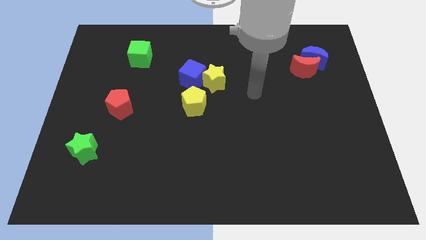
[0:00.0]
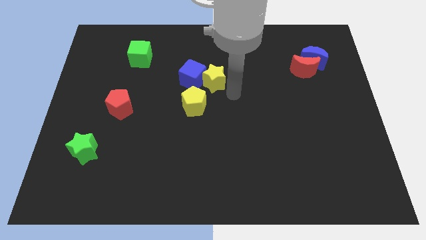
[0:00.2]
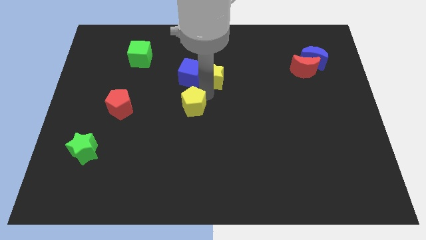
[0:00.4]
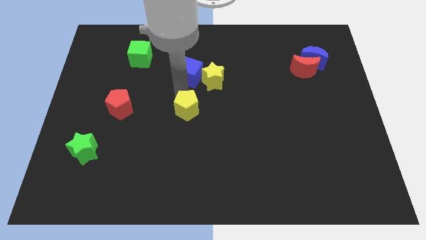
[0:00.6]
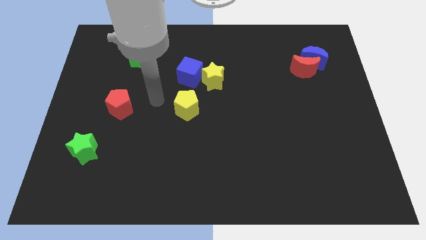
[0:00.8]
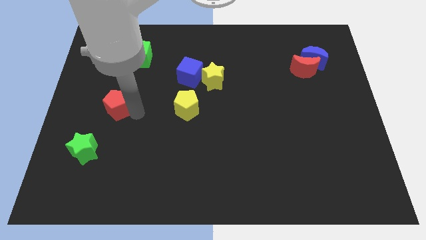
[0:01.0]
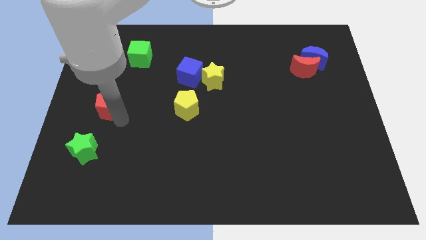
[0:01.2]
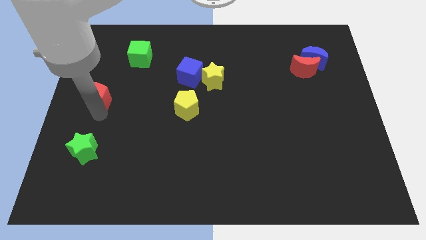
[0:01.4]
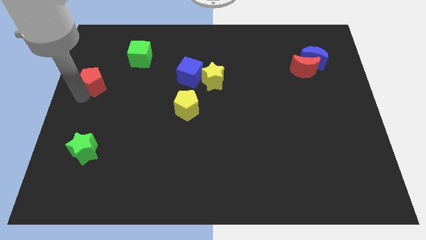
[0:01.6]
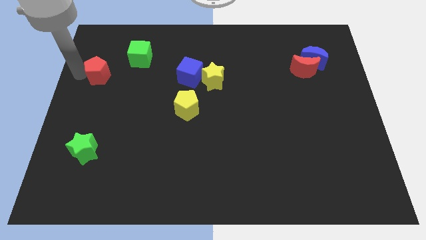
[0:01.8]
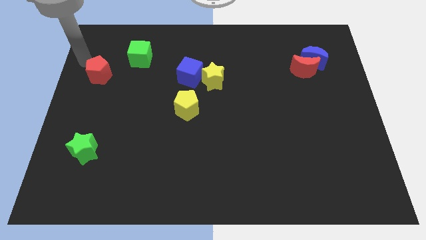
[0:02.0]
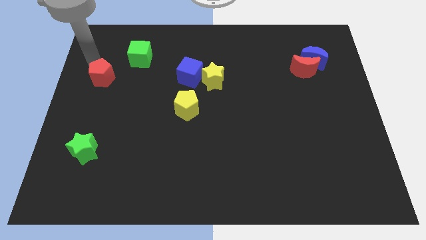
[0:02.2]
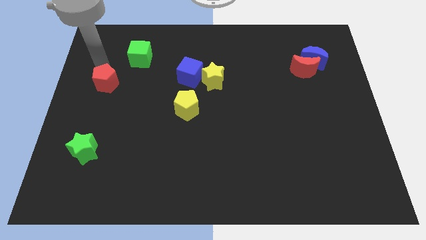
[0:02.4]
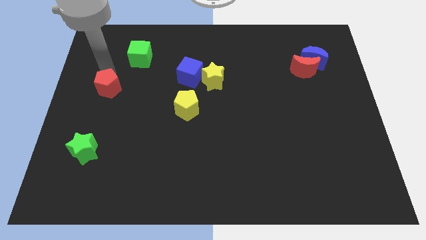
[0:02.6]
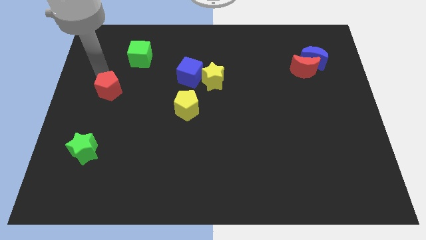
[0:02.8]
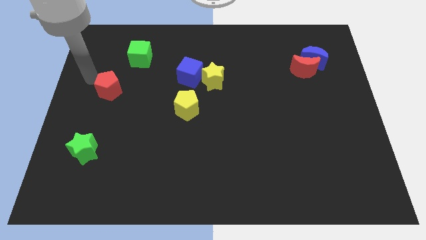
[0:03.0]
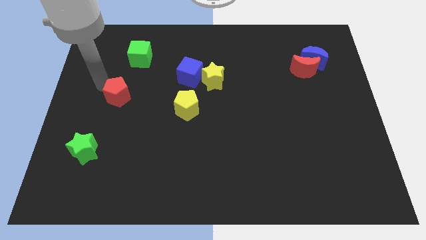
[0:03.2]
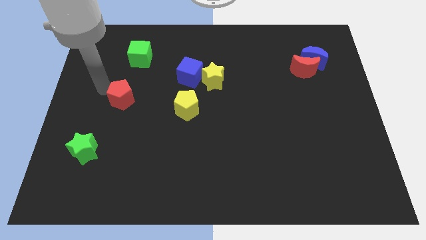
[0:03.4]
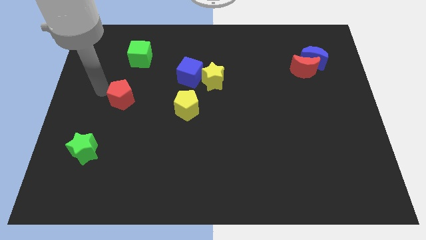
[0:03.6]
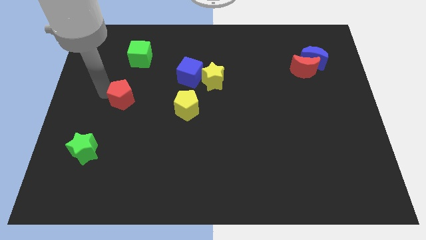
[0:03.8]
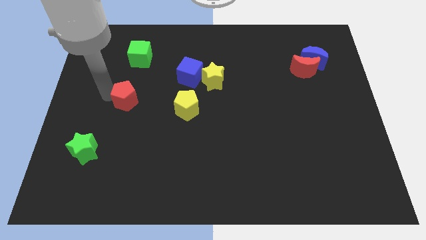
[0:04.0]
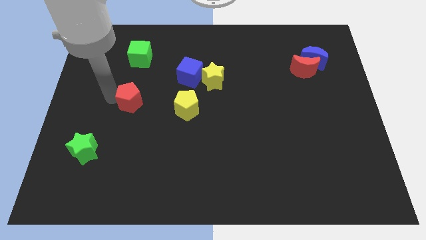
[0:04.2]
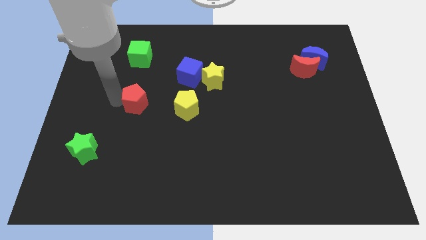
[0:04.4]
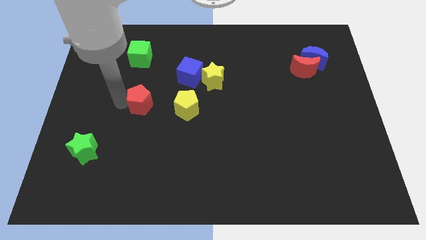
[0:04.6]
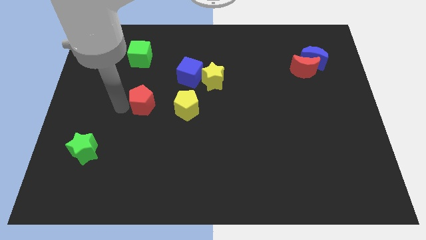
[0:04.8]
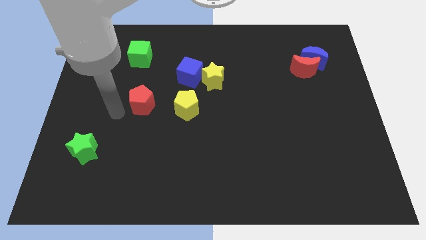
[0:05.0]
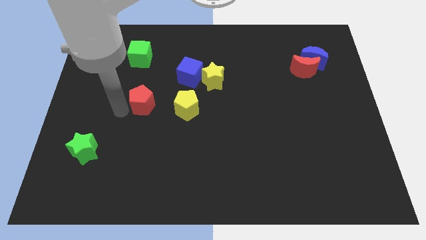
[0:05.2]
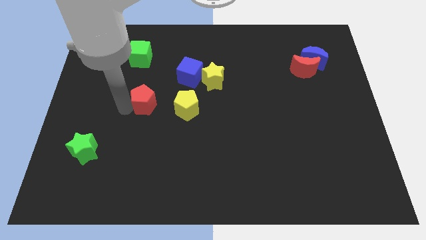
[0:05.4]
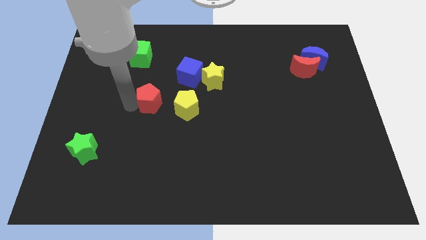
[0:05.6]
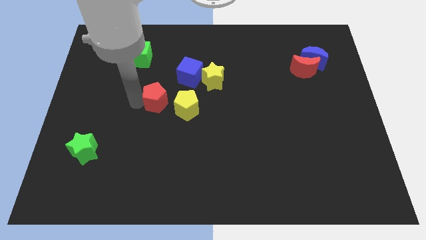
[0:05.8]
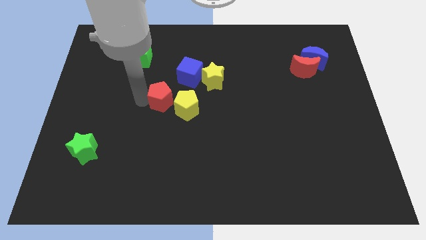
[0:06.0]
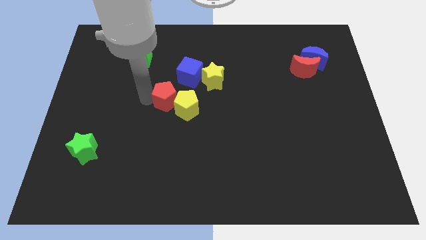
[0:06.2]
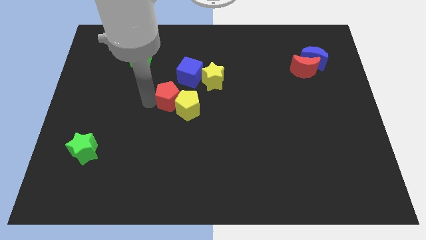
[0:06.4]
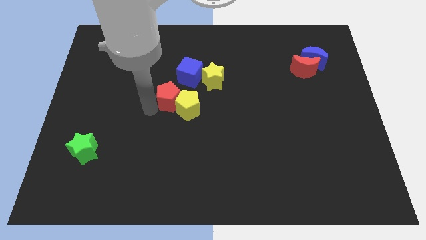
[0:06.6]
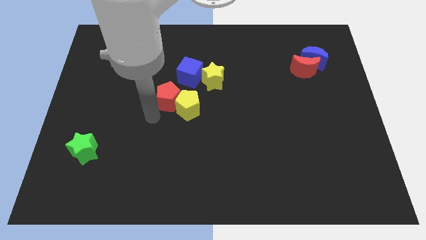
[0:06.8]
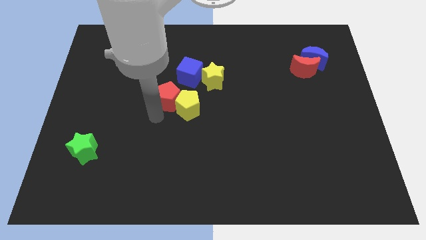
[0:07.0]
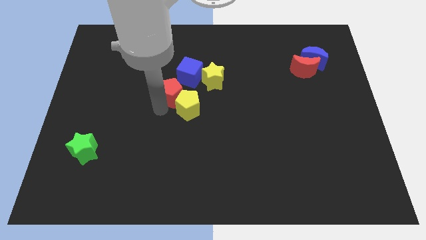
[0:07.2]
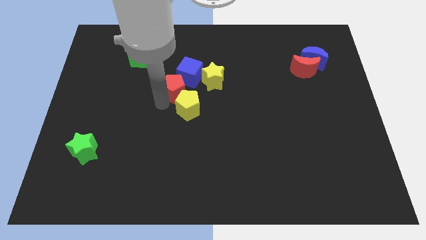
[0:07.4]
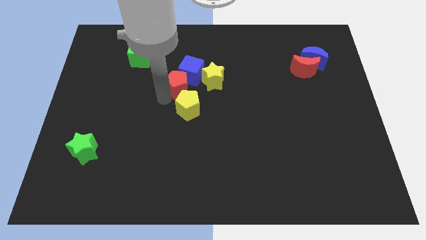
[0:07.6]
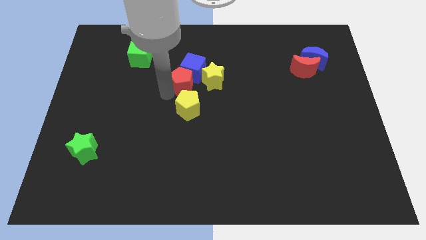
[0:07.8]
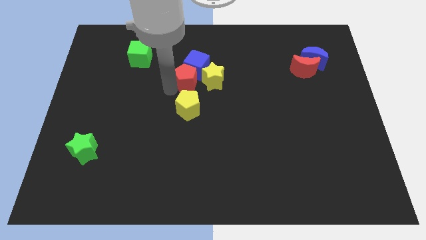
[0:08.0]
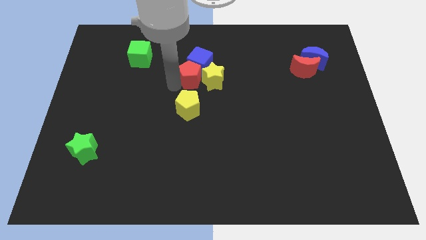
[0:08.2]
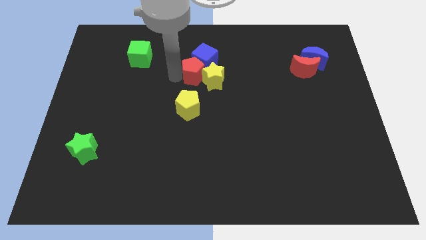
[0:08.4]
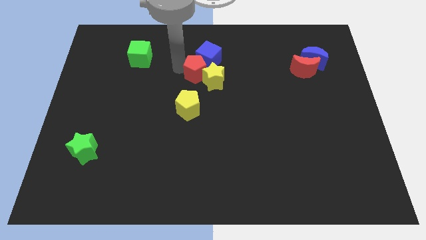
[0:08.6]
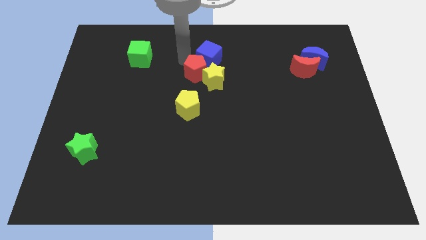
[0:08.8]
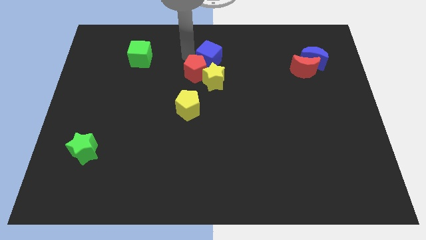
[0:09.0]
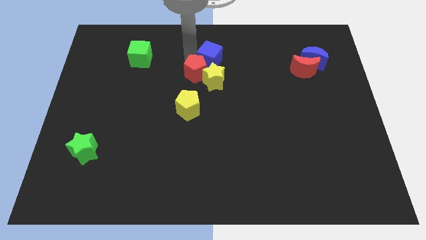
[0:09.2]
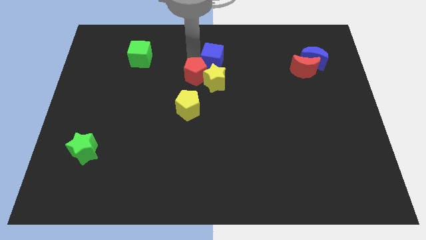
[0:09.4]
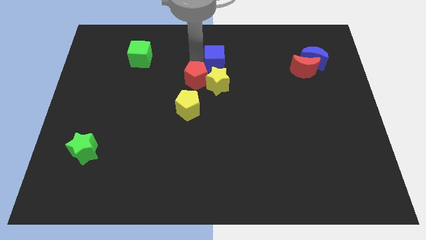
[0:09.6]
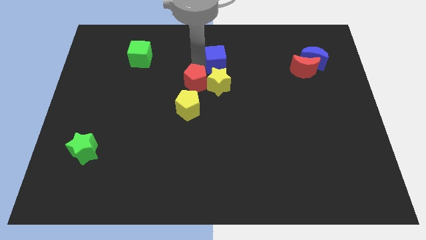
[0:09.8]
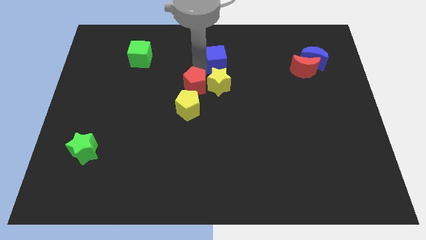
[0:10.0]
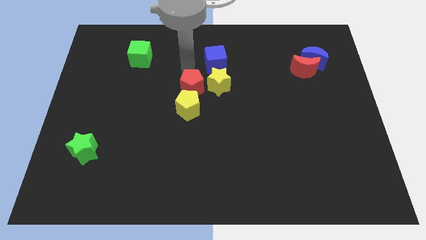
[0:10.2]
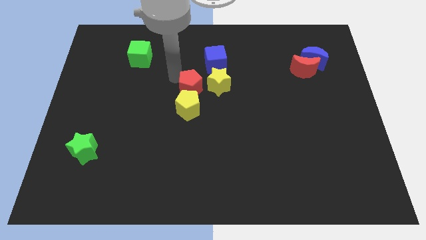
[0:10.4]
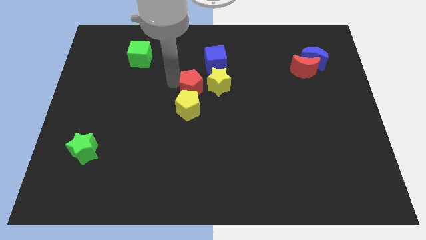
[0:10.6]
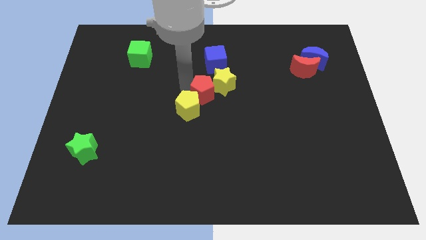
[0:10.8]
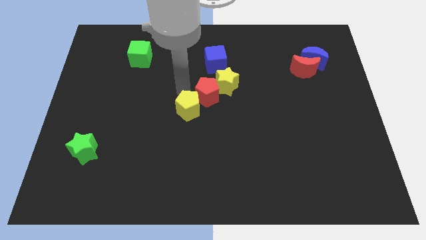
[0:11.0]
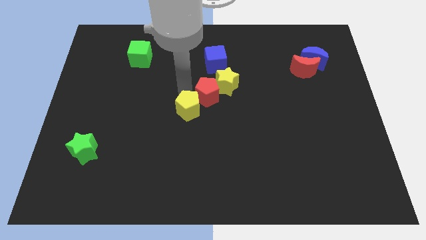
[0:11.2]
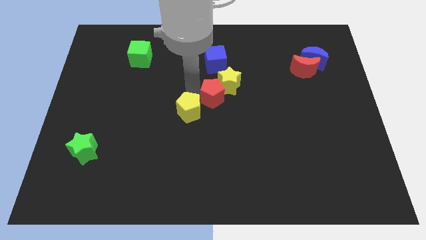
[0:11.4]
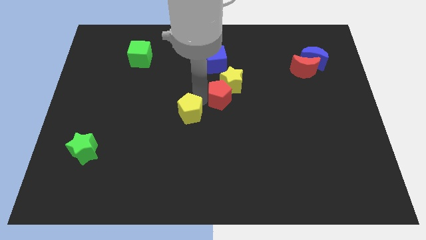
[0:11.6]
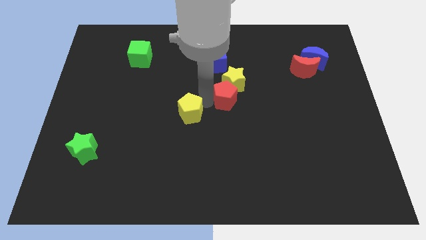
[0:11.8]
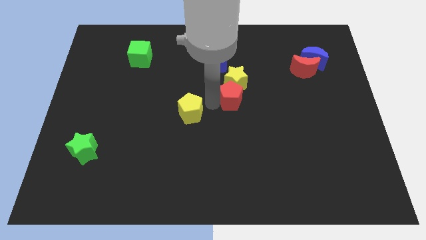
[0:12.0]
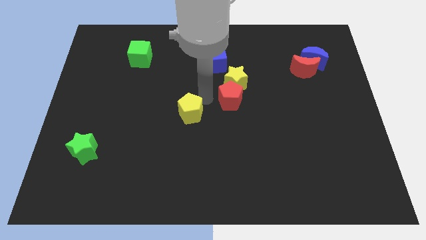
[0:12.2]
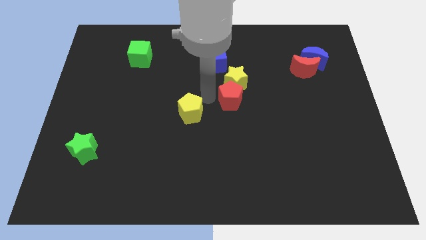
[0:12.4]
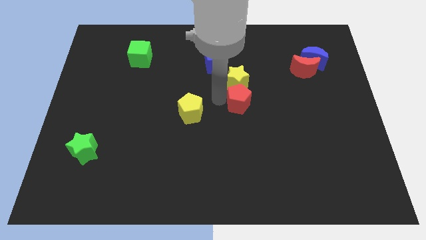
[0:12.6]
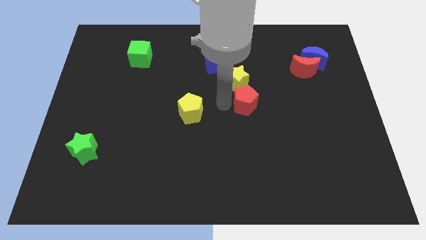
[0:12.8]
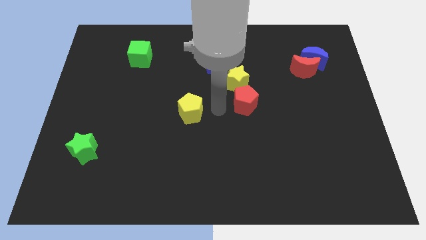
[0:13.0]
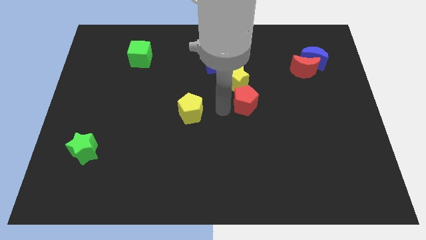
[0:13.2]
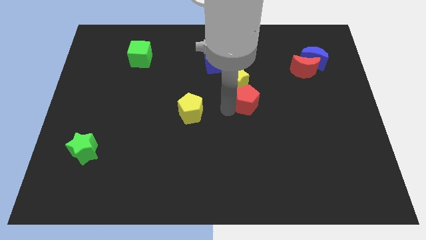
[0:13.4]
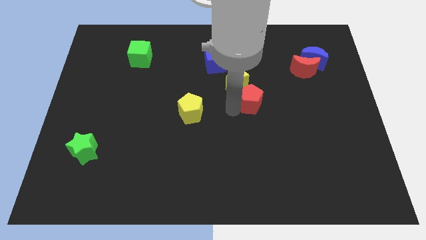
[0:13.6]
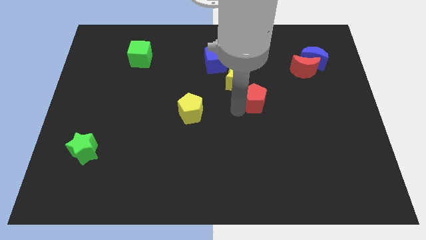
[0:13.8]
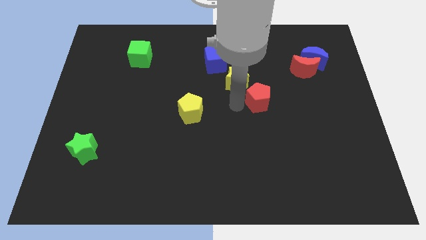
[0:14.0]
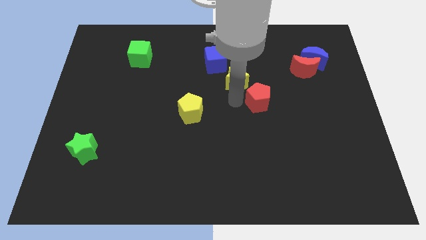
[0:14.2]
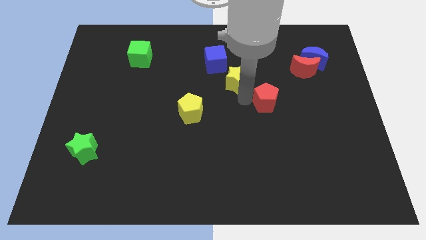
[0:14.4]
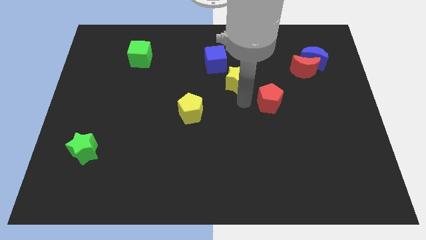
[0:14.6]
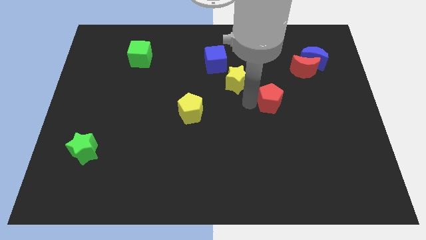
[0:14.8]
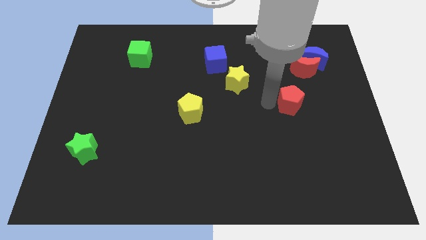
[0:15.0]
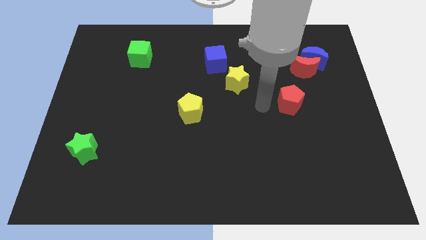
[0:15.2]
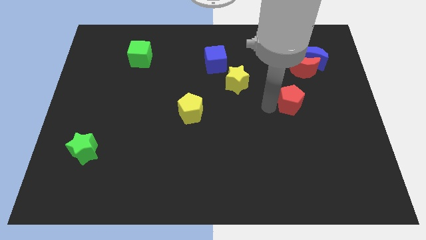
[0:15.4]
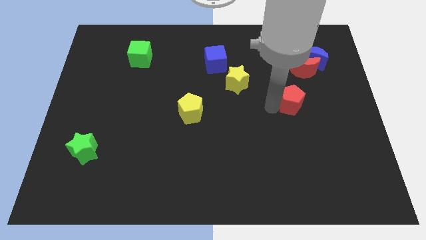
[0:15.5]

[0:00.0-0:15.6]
push the red pentagon below the red moon
